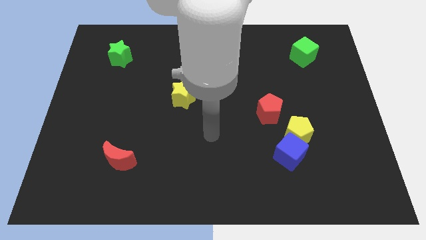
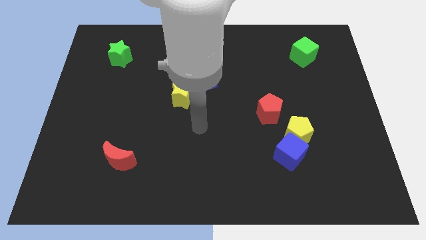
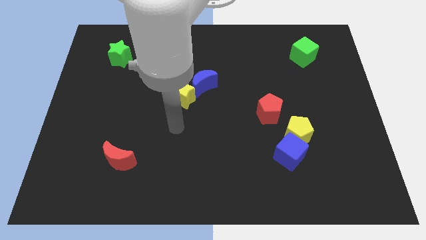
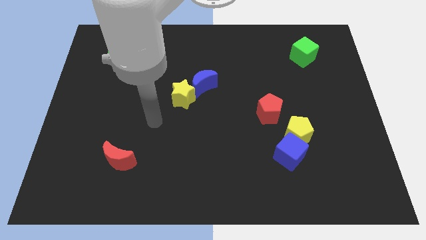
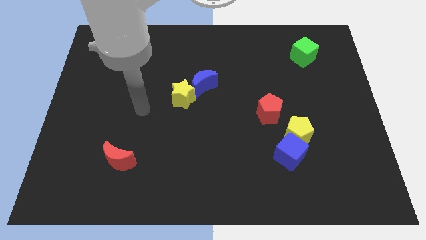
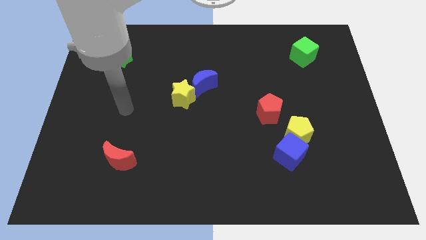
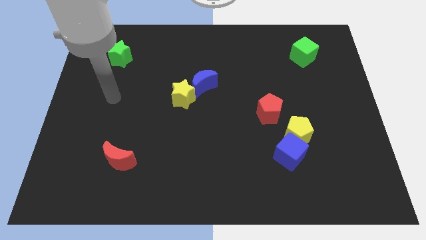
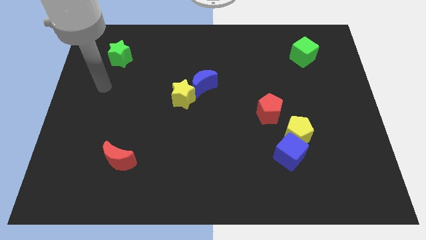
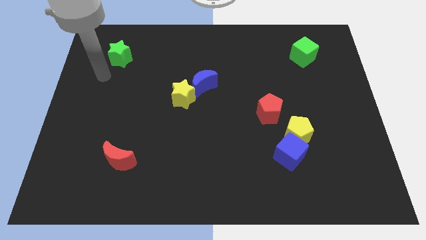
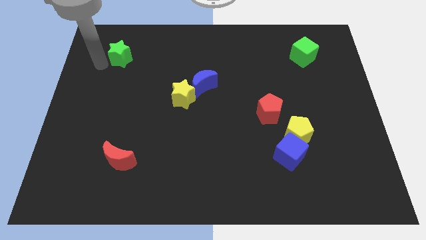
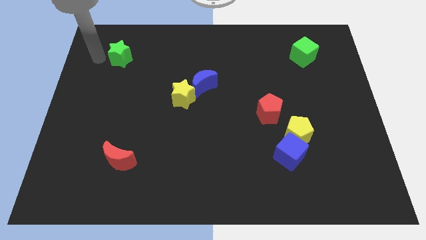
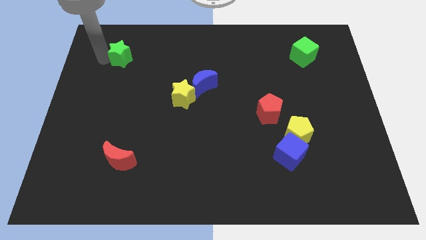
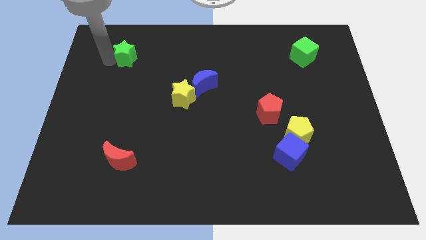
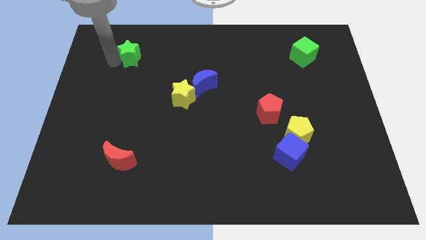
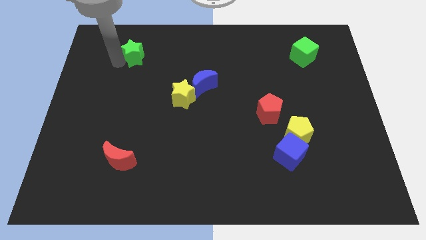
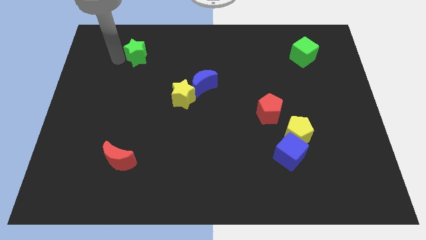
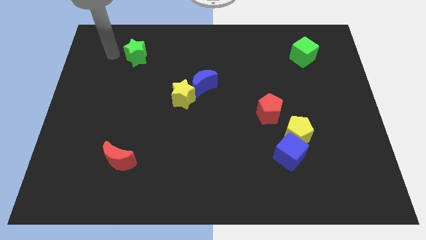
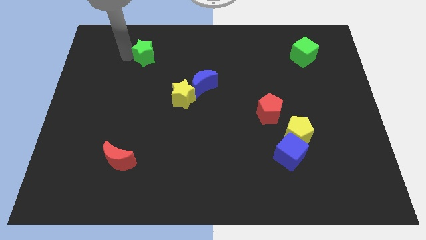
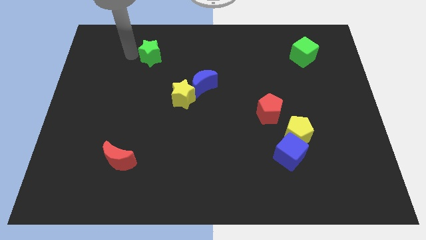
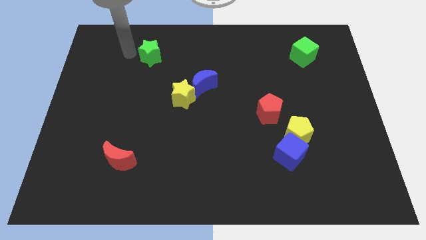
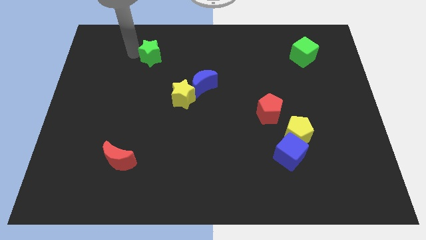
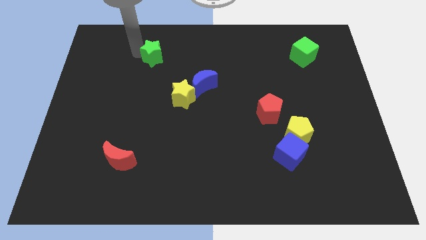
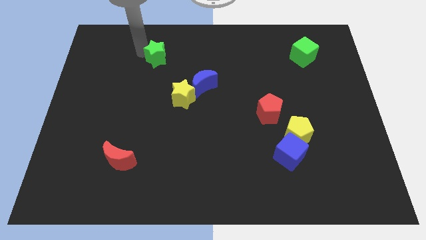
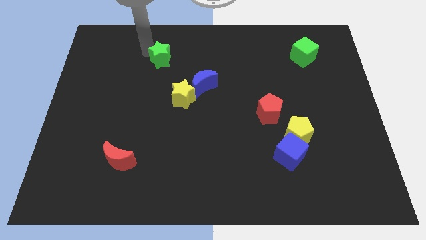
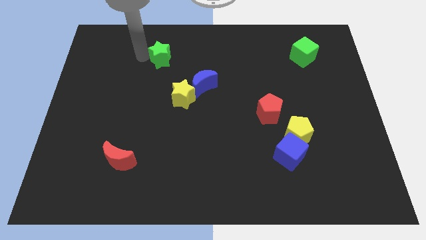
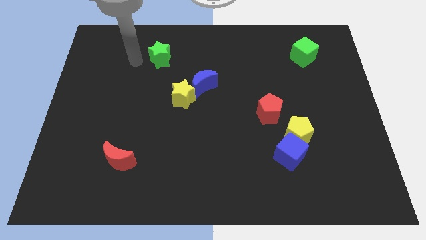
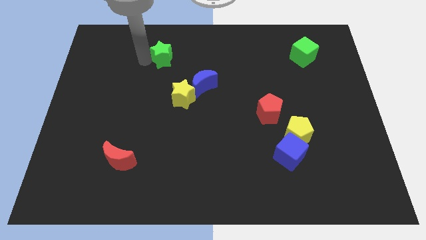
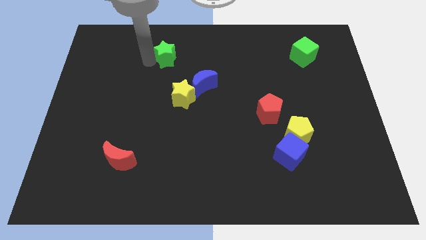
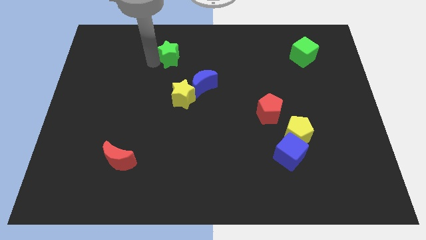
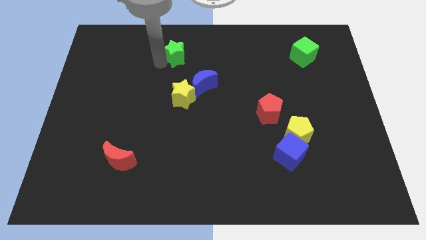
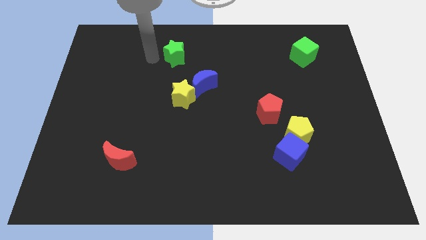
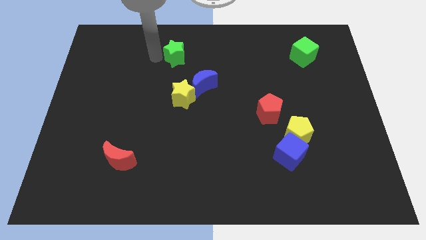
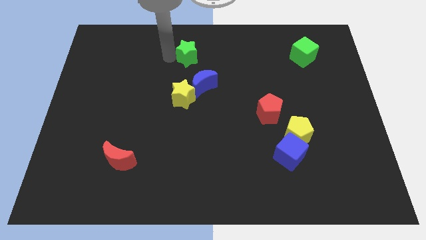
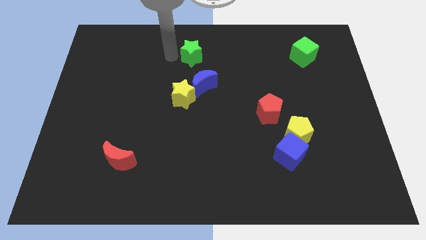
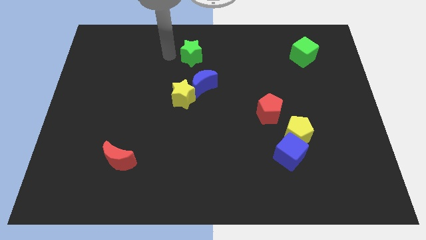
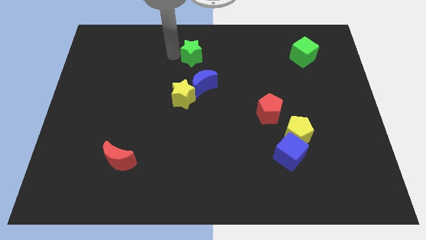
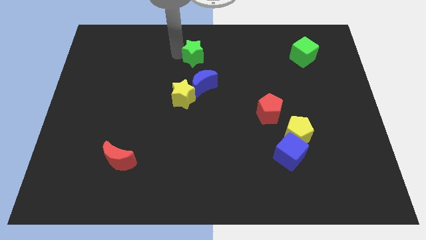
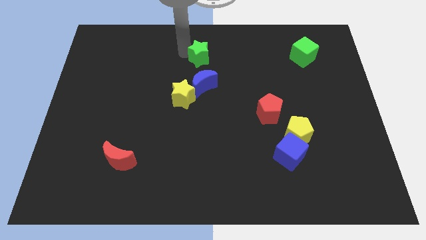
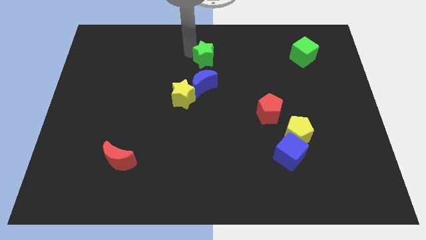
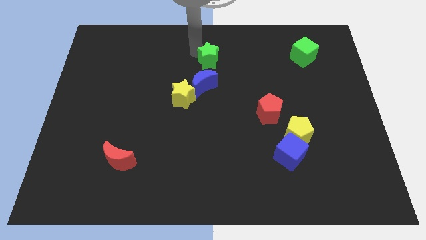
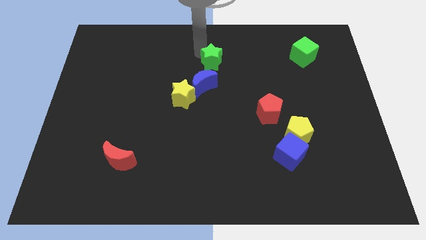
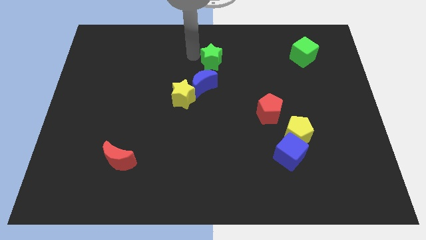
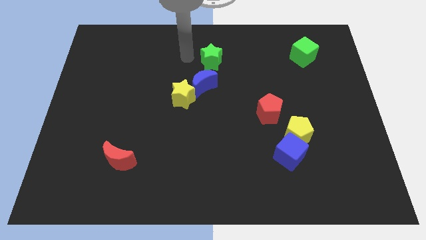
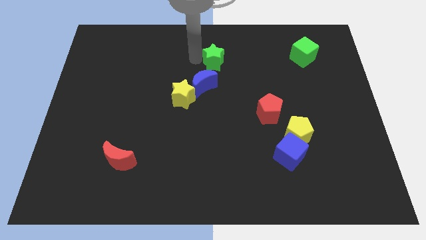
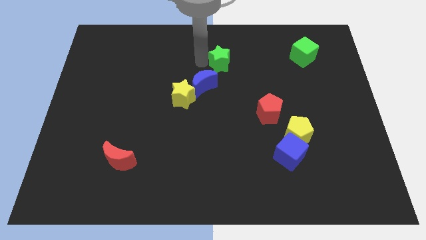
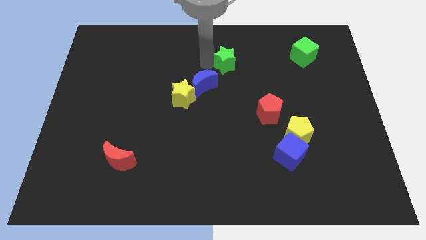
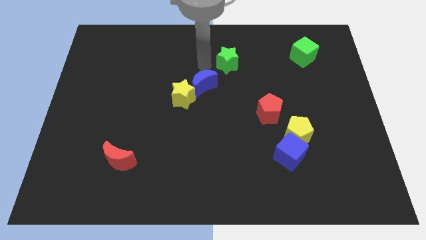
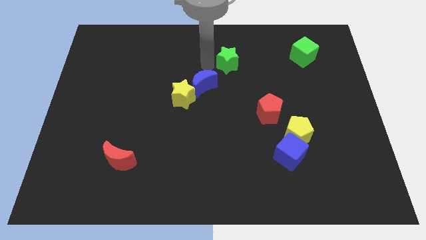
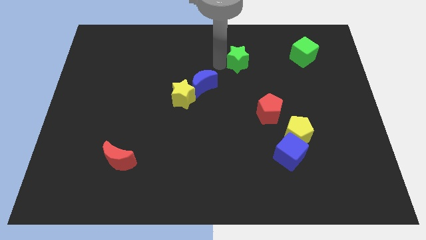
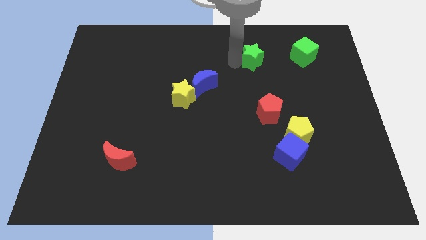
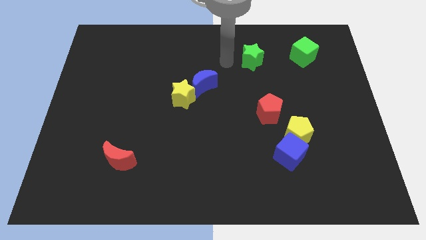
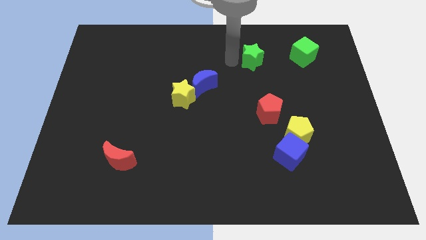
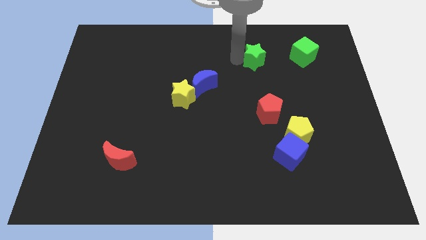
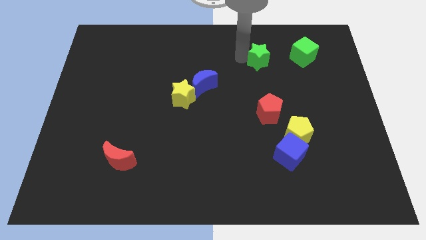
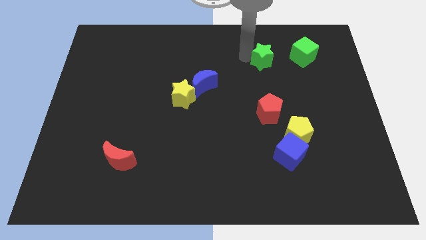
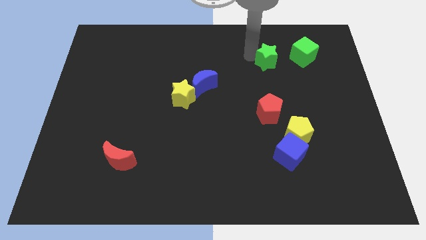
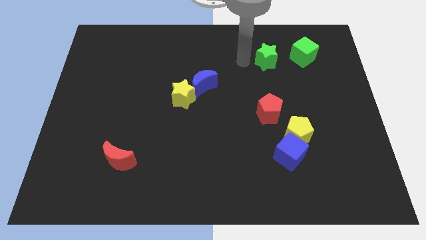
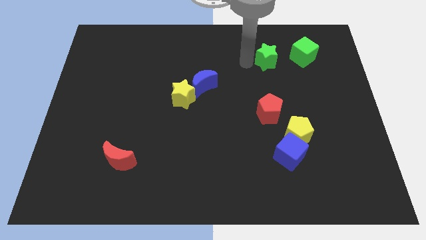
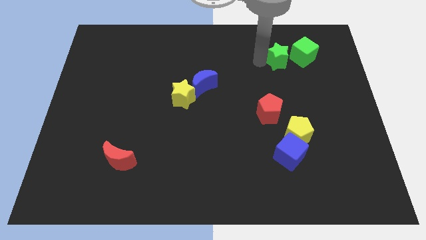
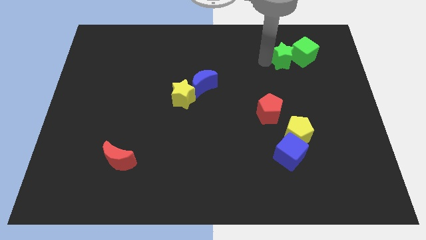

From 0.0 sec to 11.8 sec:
push the green star to the green cube

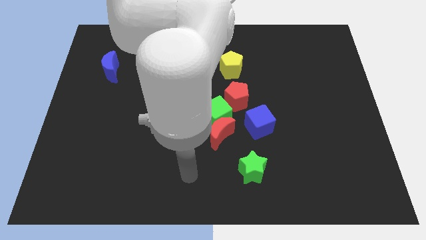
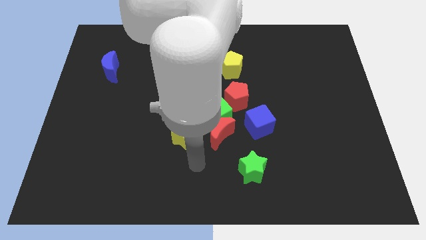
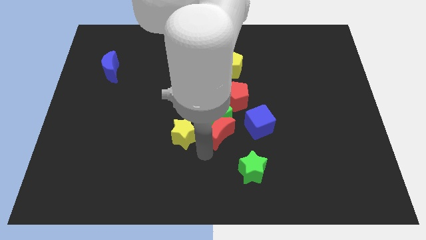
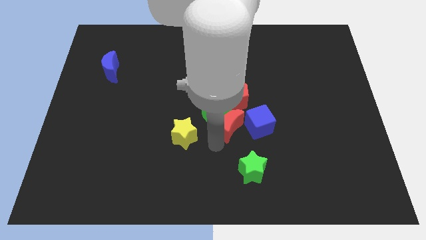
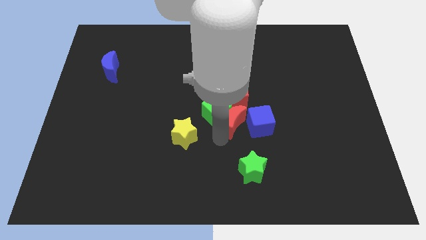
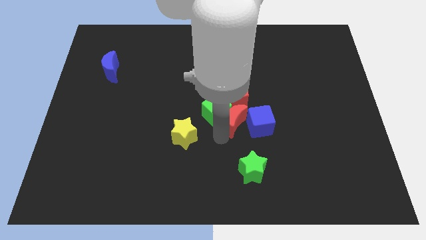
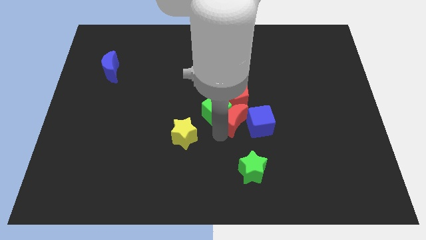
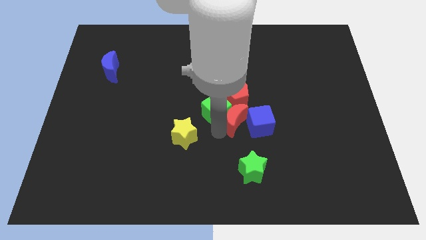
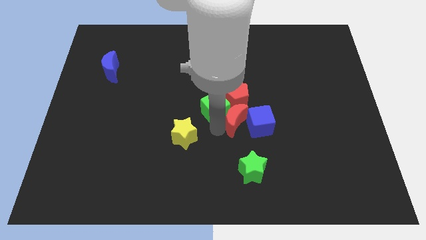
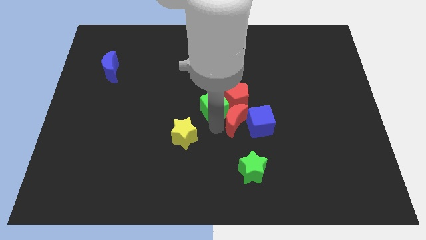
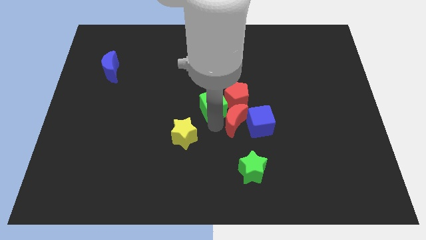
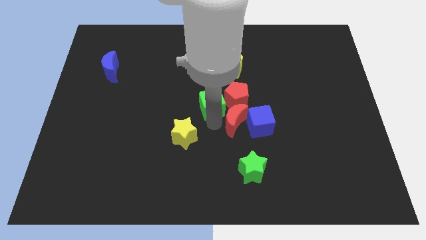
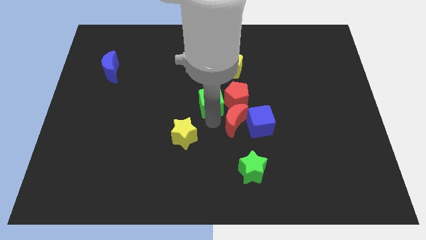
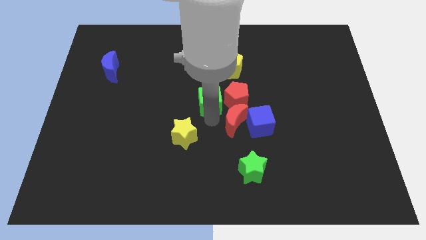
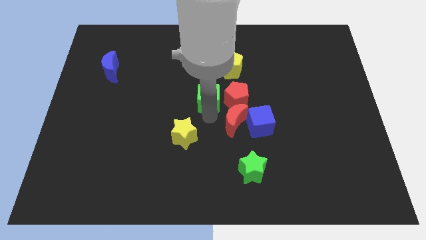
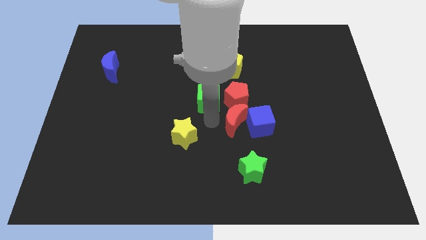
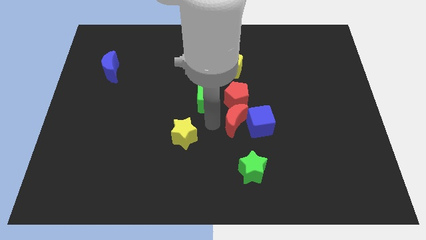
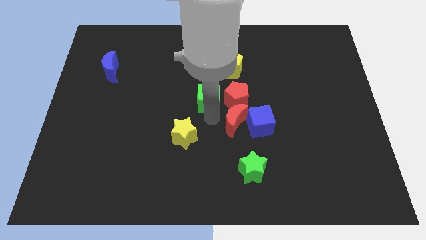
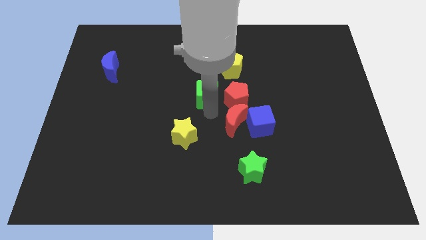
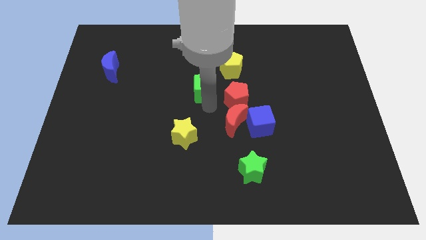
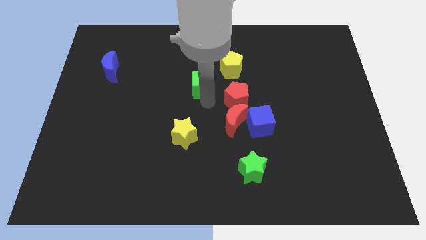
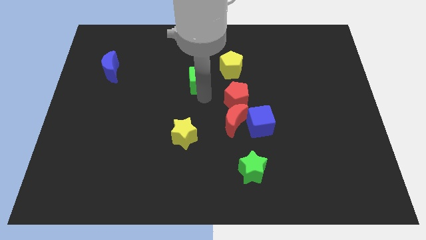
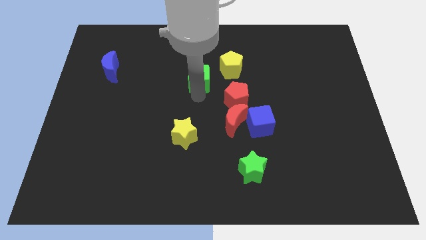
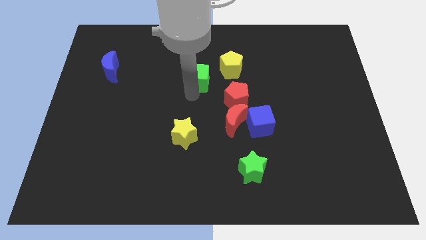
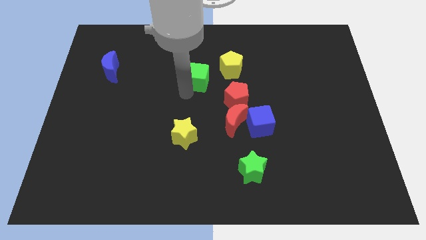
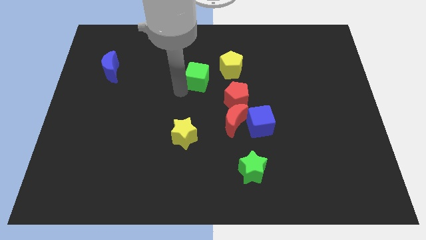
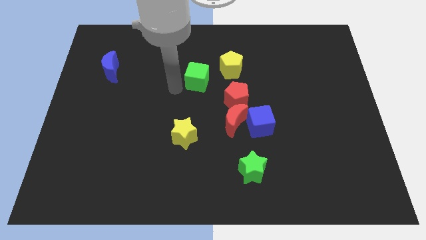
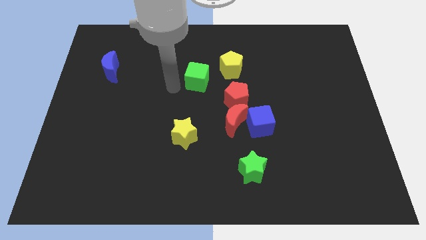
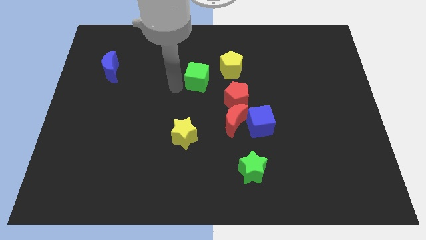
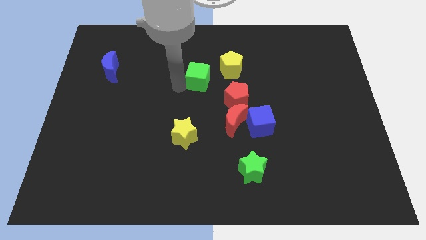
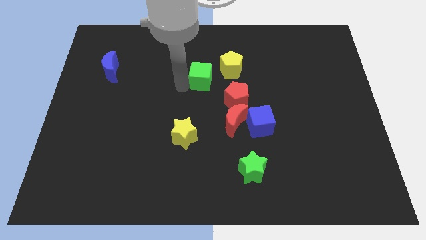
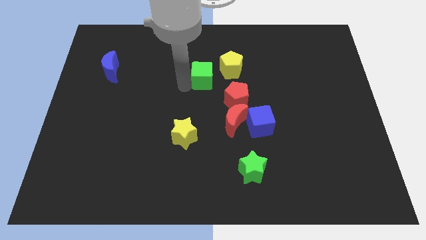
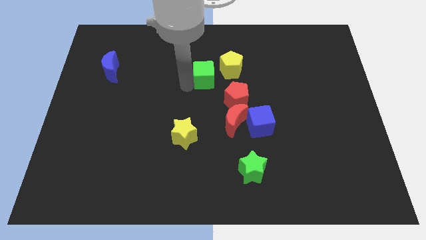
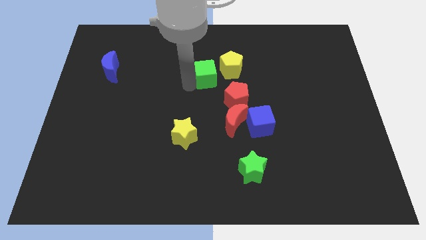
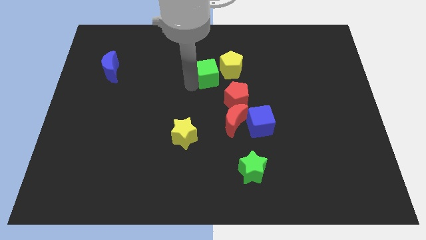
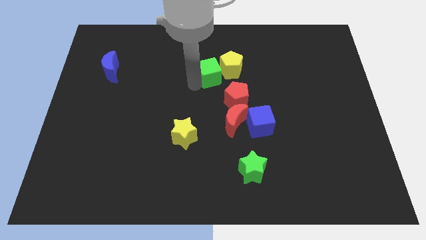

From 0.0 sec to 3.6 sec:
push the green cube to the yellow pentagon
